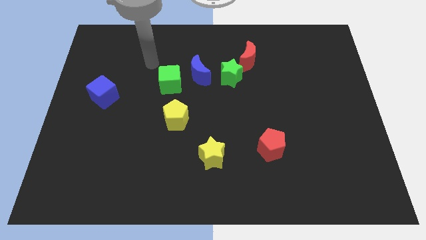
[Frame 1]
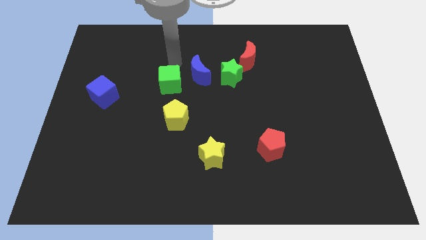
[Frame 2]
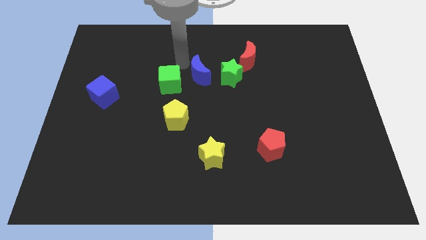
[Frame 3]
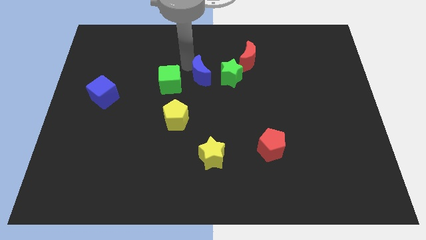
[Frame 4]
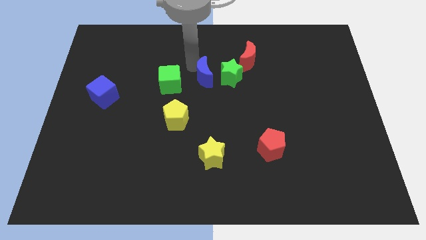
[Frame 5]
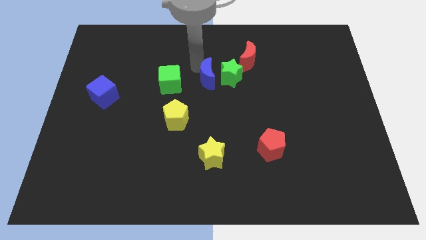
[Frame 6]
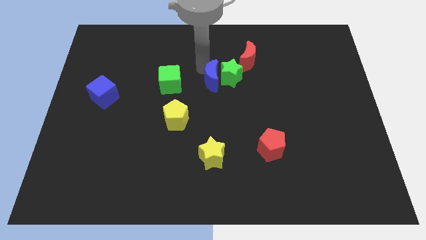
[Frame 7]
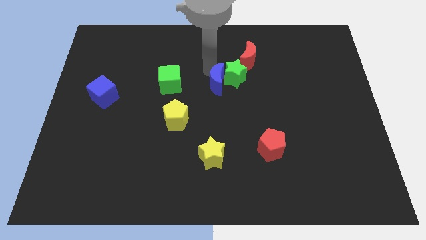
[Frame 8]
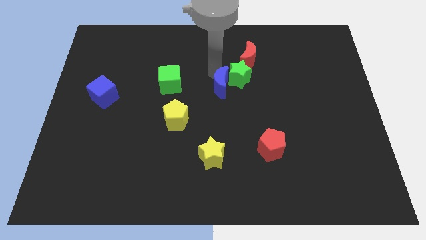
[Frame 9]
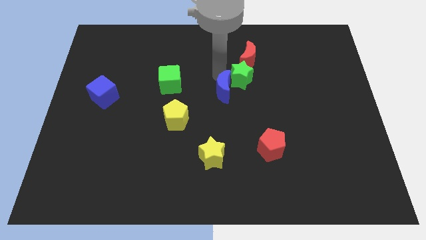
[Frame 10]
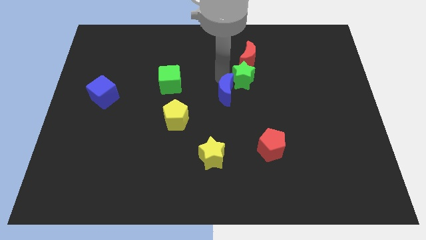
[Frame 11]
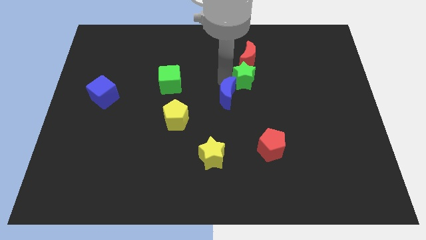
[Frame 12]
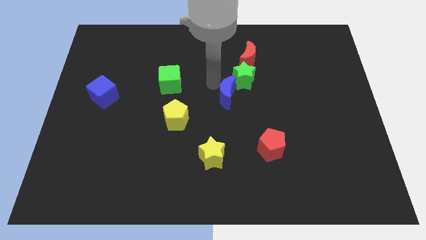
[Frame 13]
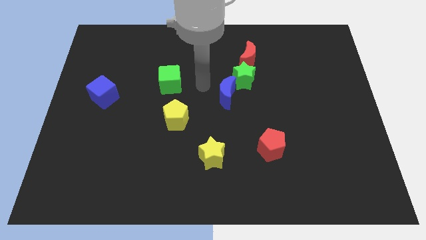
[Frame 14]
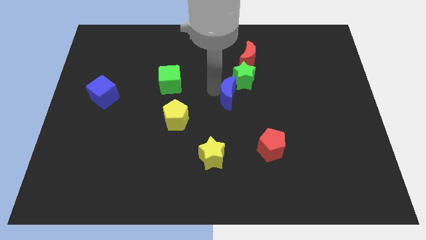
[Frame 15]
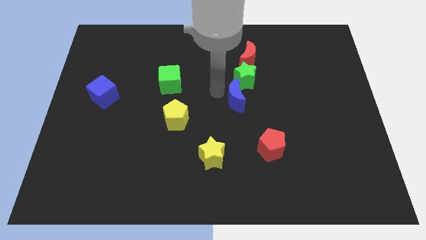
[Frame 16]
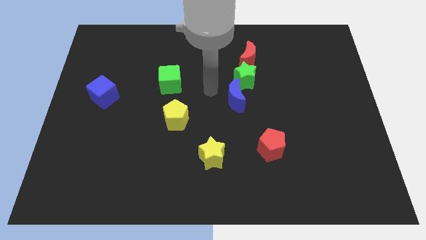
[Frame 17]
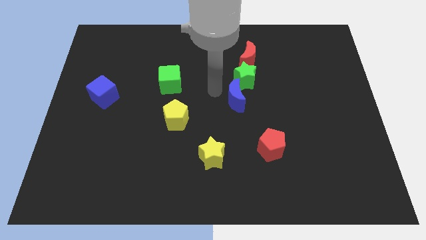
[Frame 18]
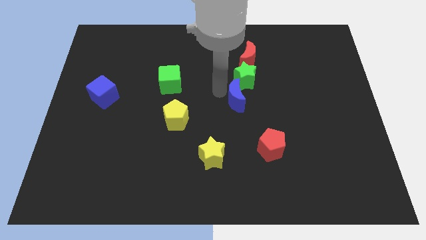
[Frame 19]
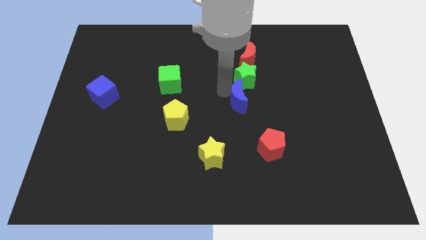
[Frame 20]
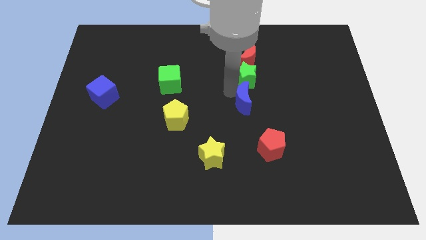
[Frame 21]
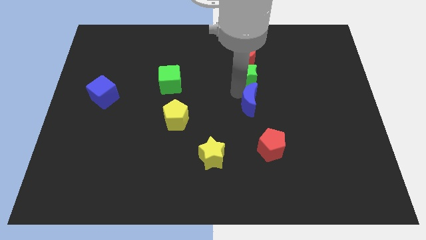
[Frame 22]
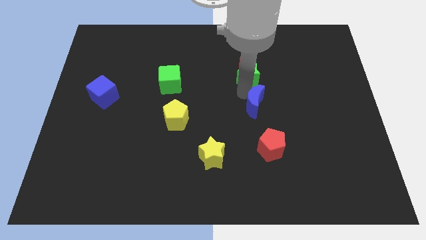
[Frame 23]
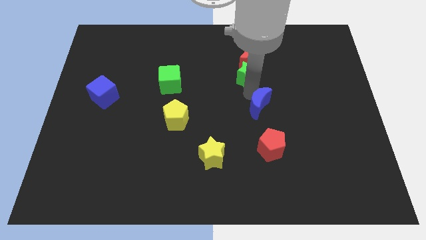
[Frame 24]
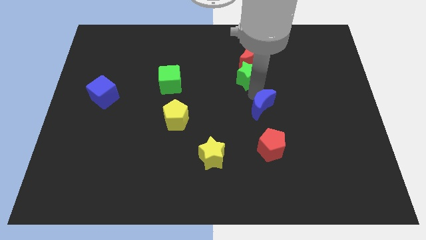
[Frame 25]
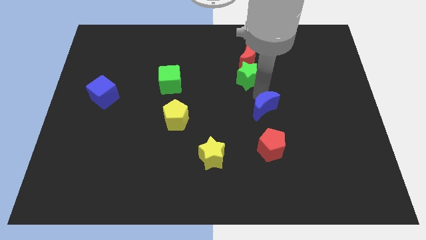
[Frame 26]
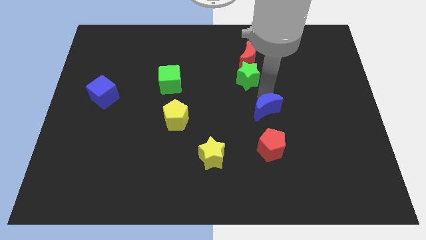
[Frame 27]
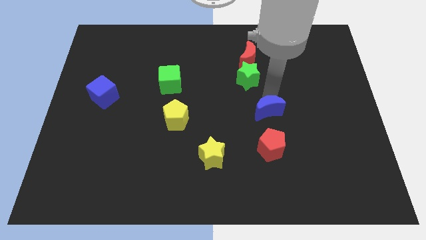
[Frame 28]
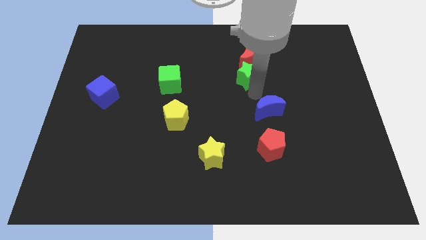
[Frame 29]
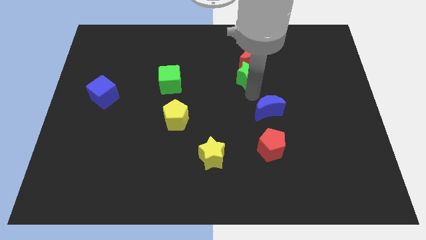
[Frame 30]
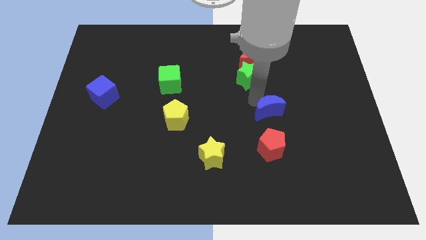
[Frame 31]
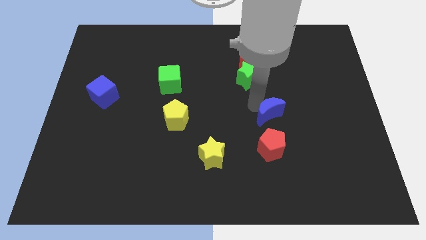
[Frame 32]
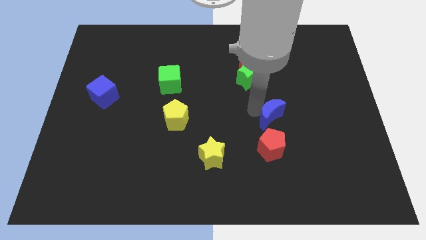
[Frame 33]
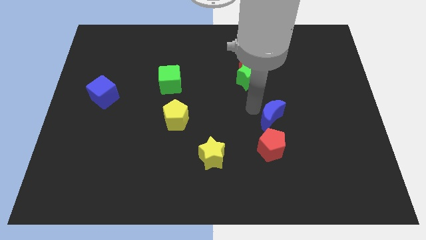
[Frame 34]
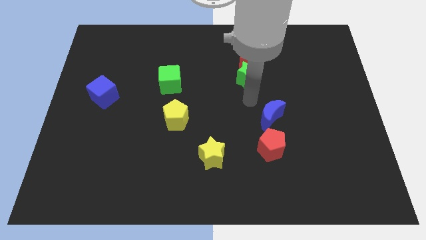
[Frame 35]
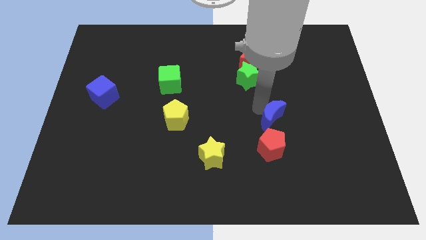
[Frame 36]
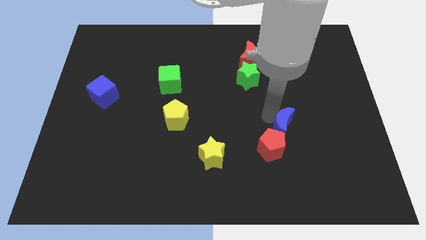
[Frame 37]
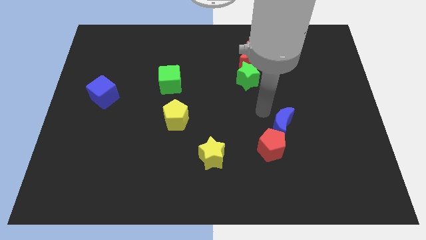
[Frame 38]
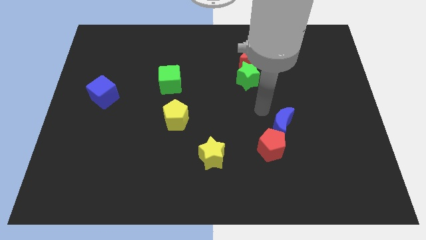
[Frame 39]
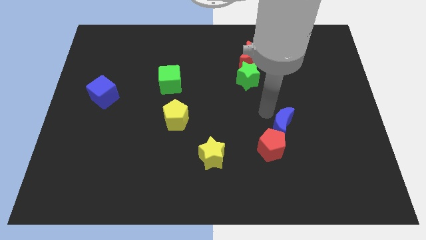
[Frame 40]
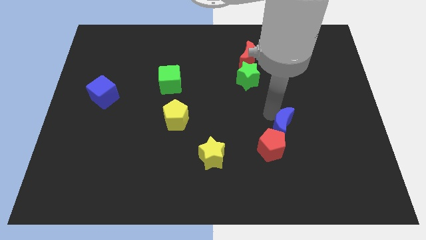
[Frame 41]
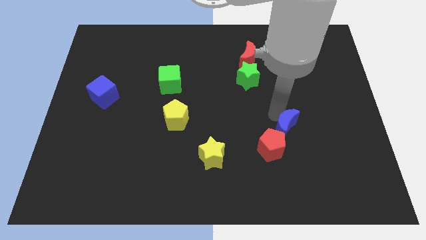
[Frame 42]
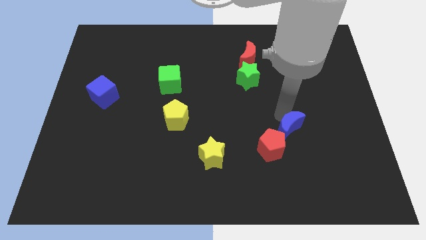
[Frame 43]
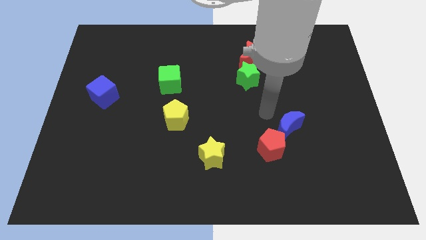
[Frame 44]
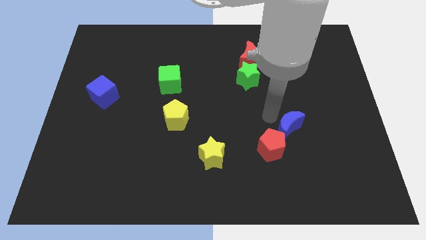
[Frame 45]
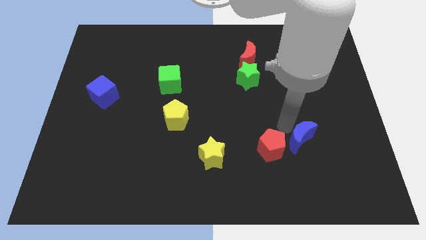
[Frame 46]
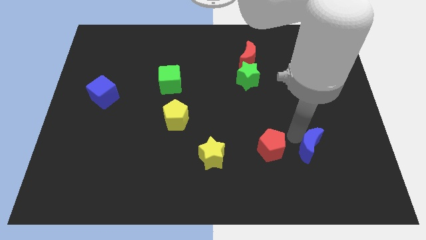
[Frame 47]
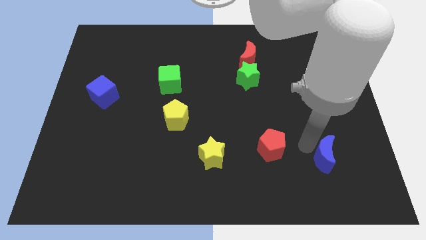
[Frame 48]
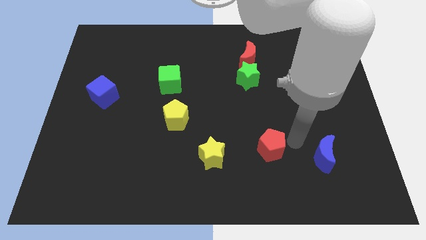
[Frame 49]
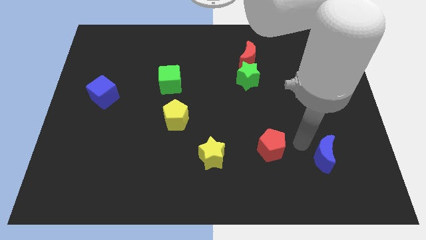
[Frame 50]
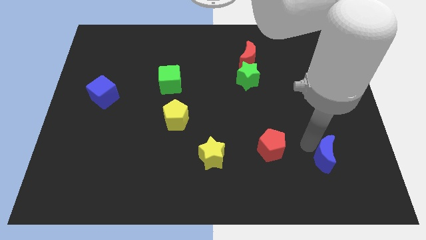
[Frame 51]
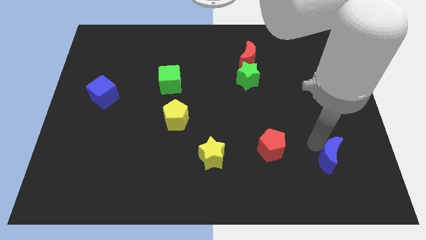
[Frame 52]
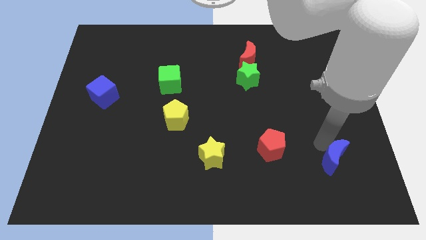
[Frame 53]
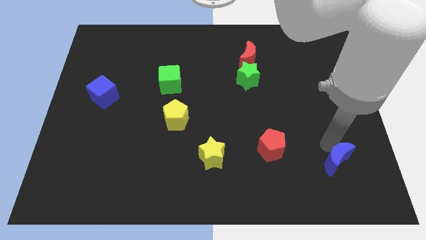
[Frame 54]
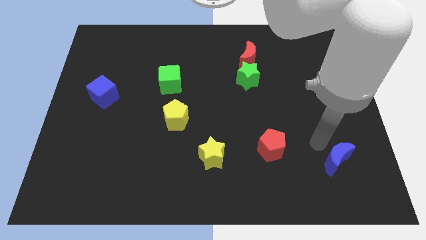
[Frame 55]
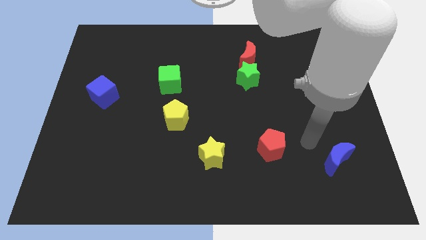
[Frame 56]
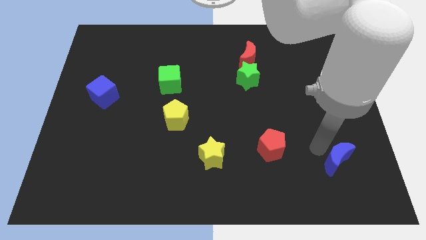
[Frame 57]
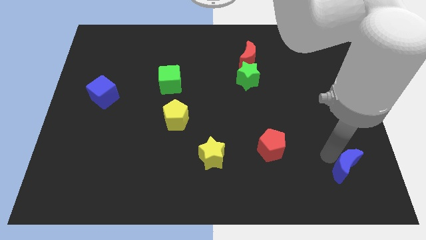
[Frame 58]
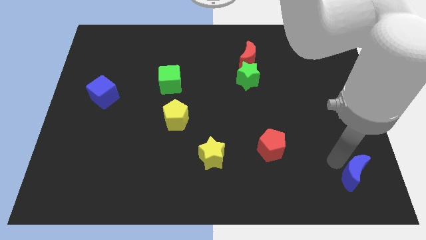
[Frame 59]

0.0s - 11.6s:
move the blue moon to the bottom right

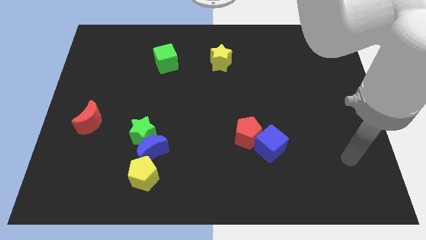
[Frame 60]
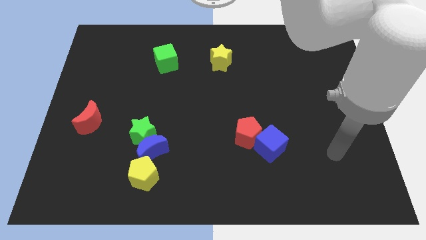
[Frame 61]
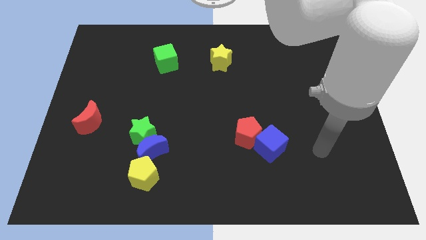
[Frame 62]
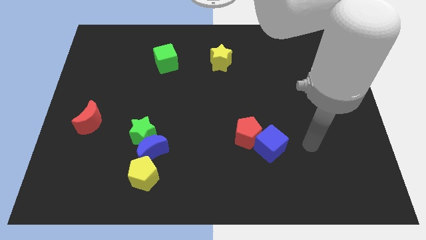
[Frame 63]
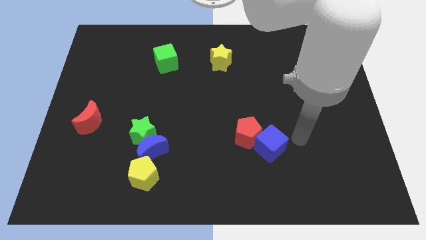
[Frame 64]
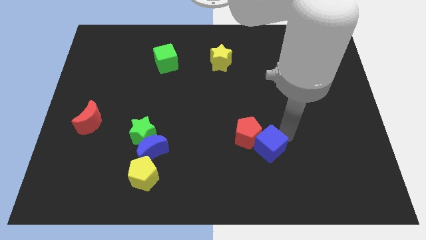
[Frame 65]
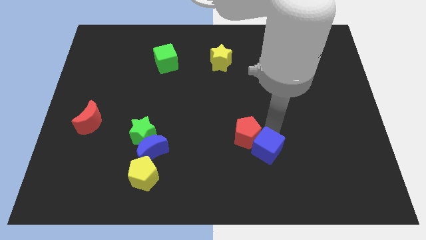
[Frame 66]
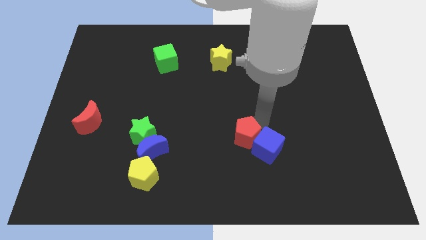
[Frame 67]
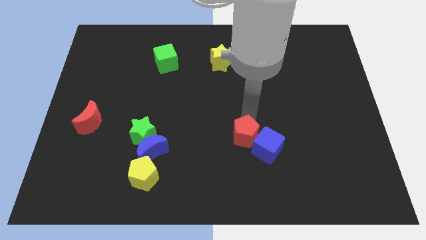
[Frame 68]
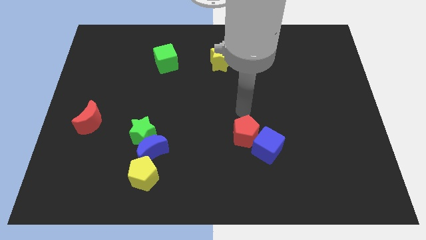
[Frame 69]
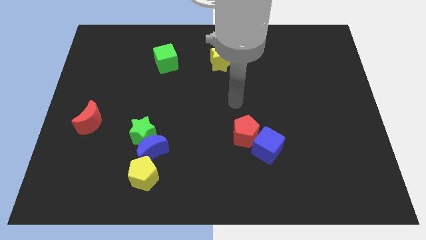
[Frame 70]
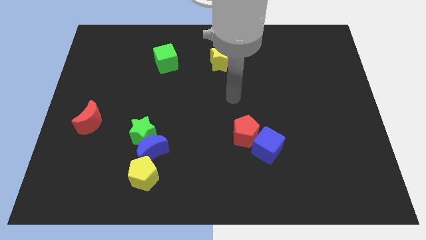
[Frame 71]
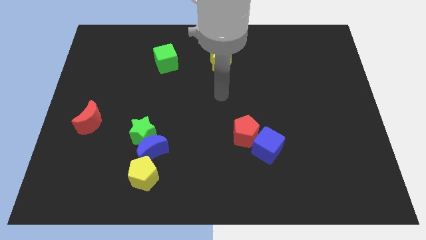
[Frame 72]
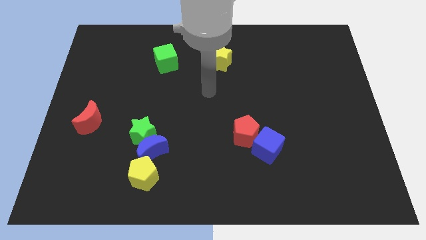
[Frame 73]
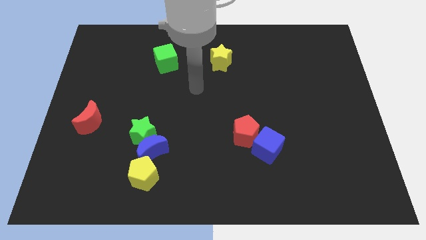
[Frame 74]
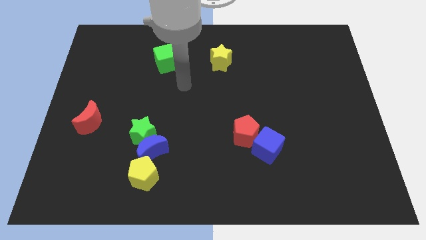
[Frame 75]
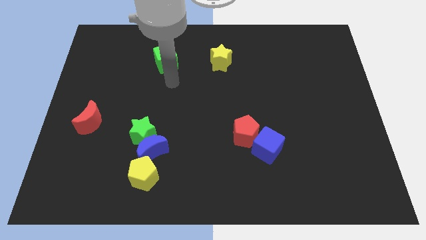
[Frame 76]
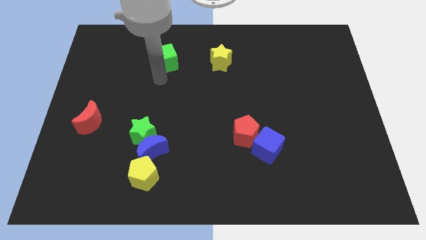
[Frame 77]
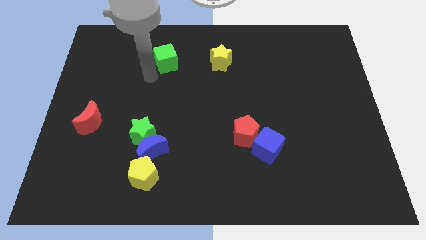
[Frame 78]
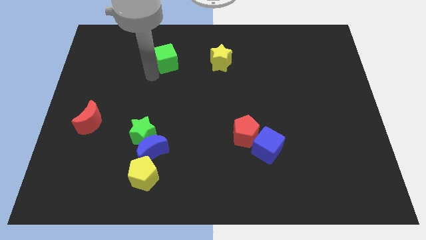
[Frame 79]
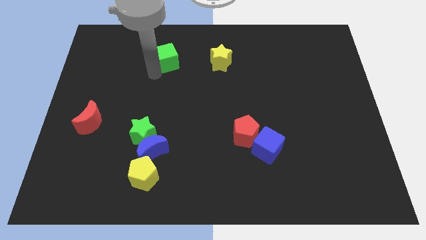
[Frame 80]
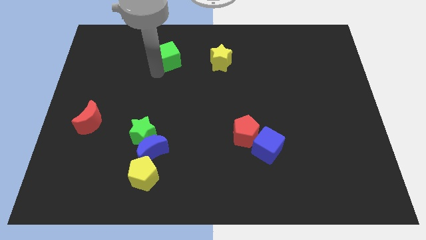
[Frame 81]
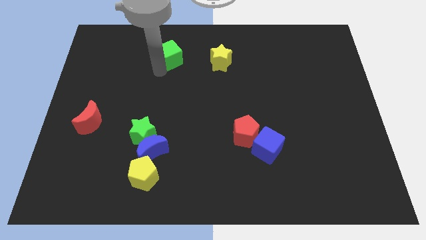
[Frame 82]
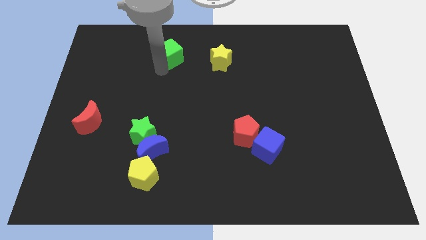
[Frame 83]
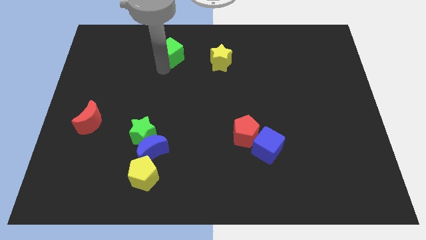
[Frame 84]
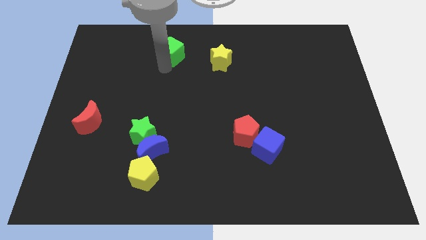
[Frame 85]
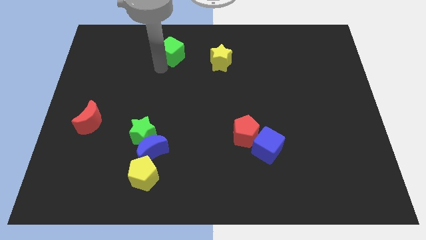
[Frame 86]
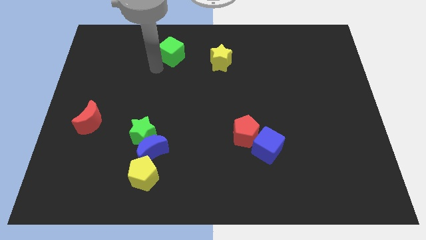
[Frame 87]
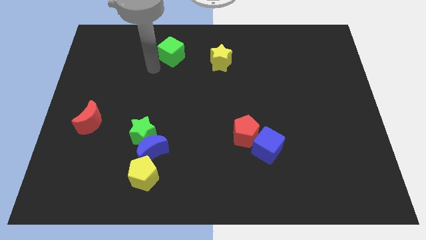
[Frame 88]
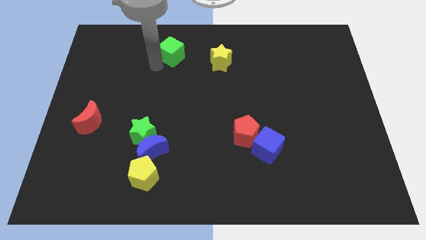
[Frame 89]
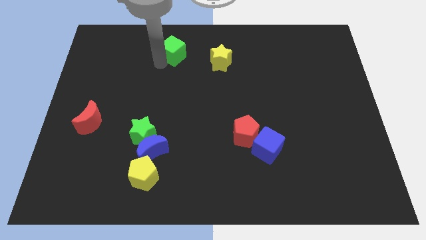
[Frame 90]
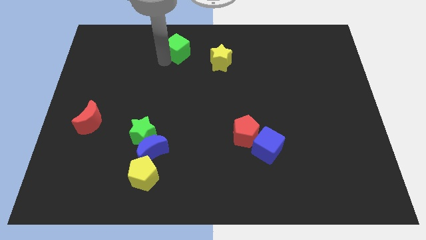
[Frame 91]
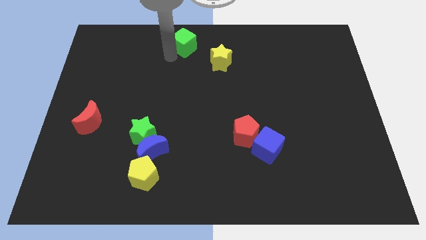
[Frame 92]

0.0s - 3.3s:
slide the green cube to the towards your base
